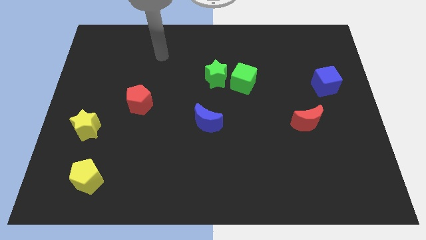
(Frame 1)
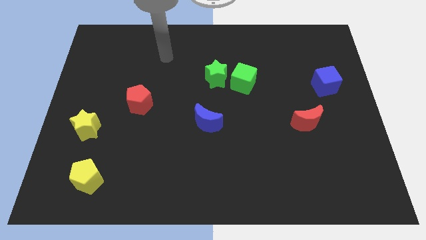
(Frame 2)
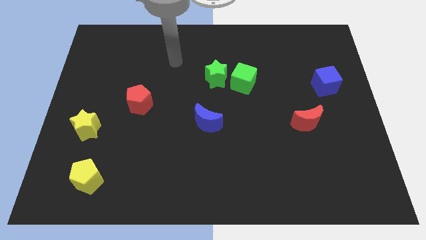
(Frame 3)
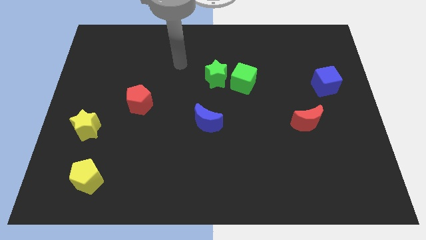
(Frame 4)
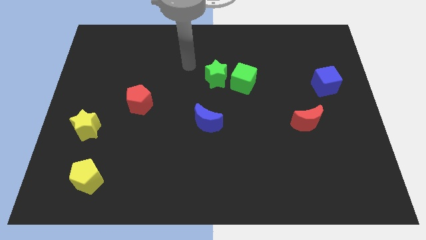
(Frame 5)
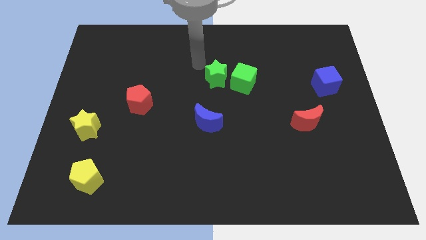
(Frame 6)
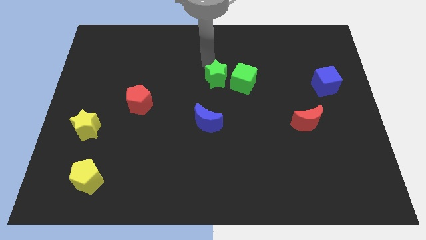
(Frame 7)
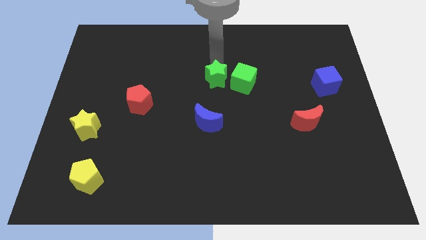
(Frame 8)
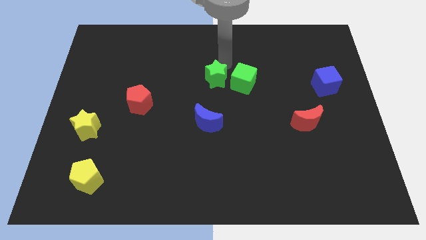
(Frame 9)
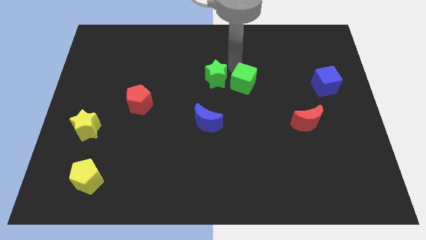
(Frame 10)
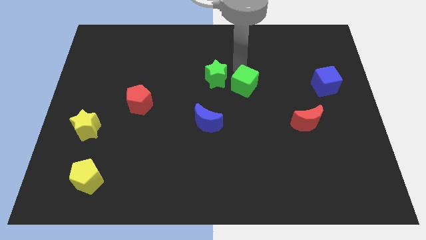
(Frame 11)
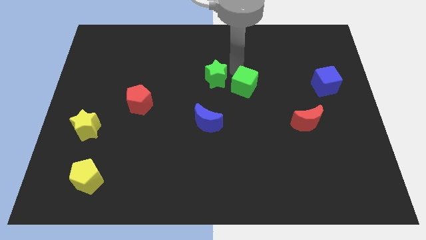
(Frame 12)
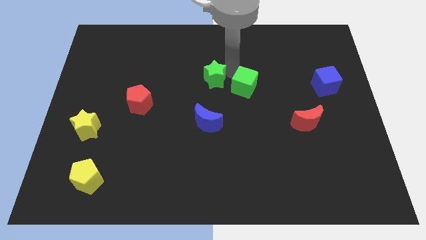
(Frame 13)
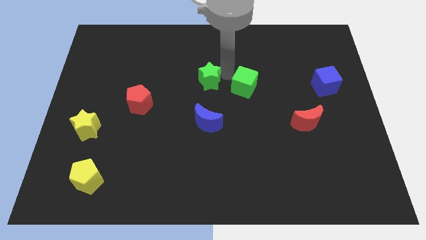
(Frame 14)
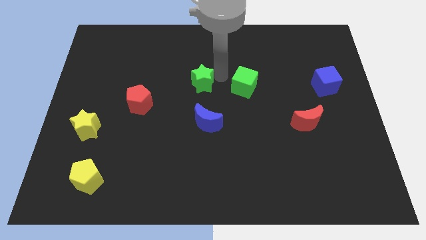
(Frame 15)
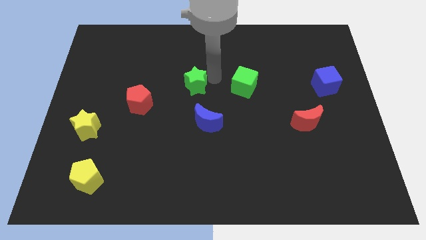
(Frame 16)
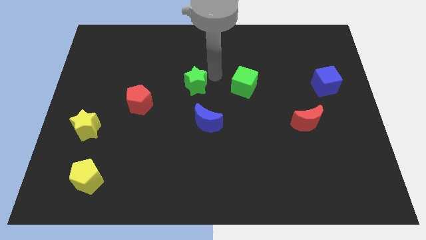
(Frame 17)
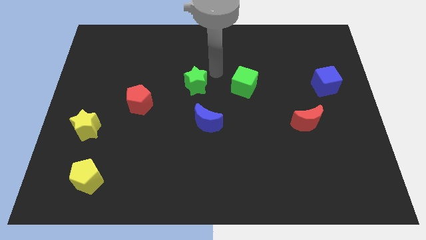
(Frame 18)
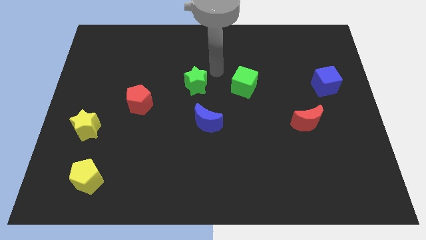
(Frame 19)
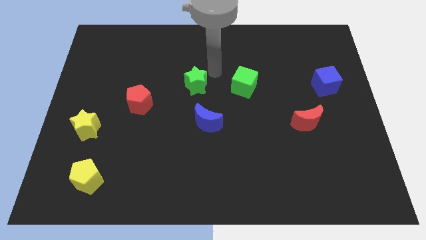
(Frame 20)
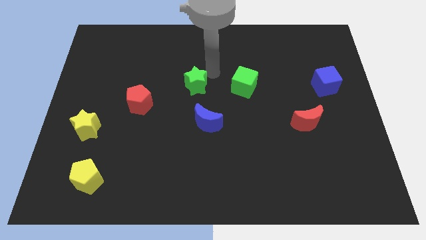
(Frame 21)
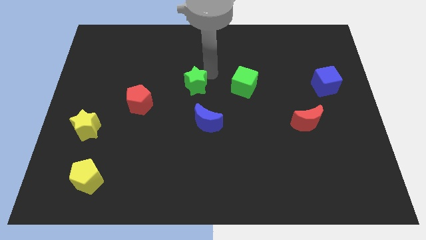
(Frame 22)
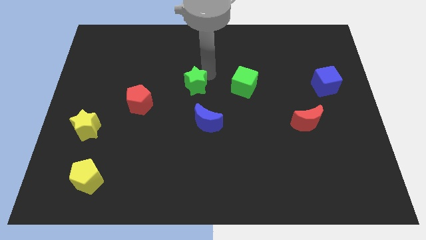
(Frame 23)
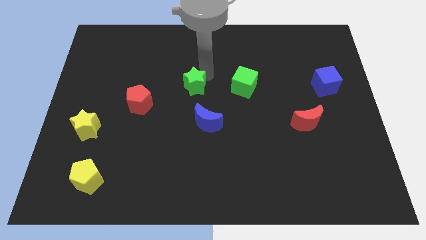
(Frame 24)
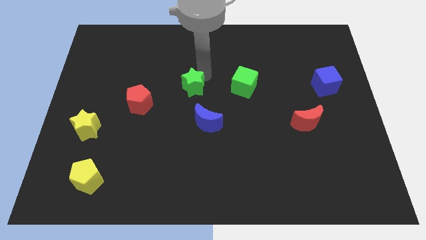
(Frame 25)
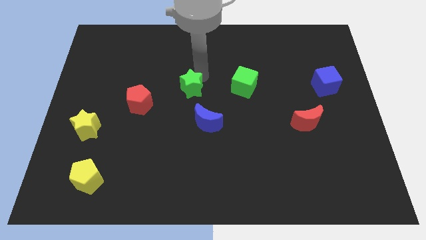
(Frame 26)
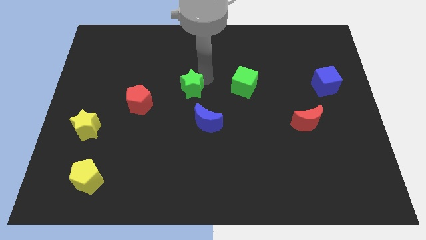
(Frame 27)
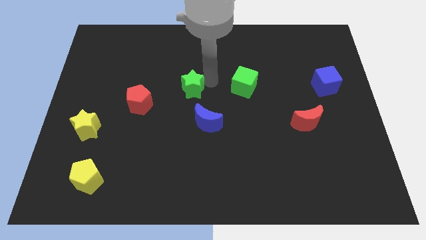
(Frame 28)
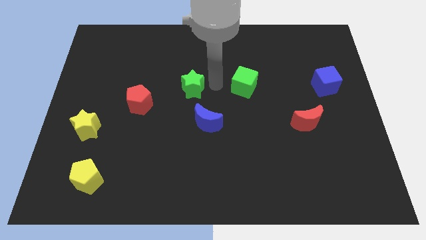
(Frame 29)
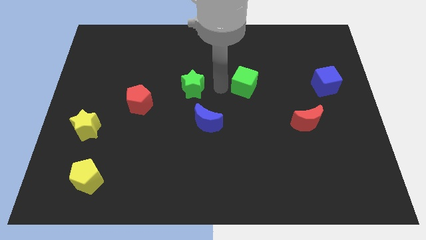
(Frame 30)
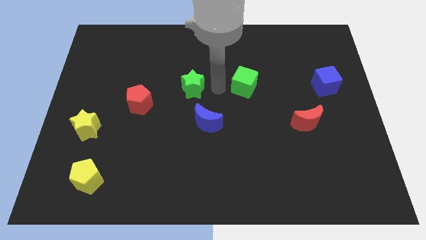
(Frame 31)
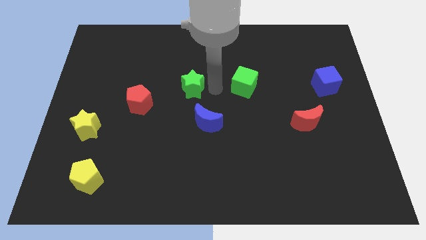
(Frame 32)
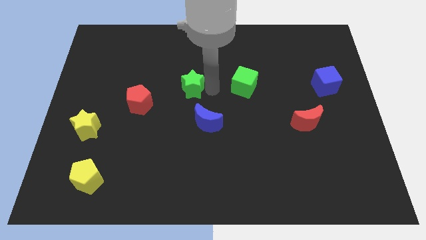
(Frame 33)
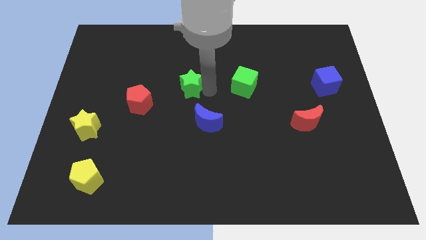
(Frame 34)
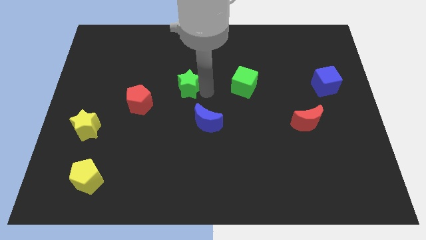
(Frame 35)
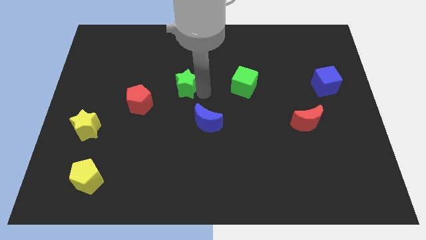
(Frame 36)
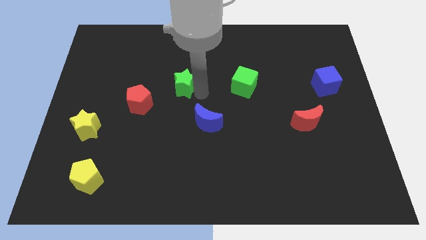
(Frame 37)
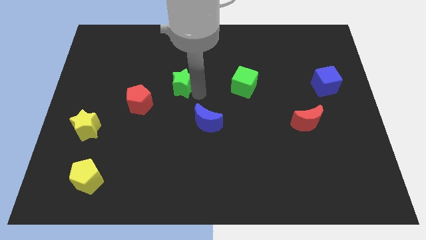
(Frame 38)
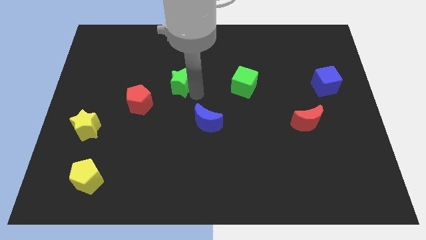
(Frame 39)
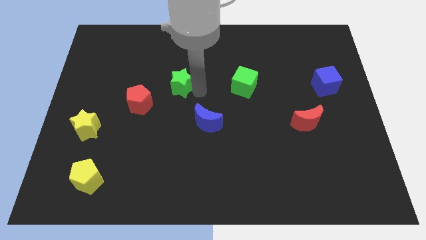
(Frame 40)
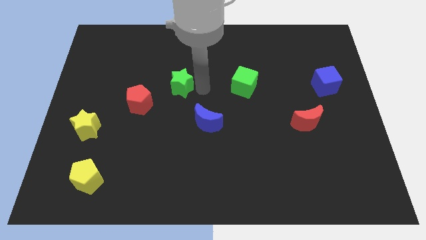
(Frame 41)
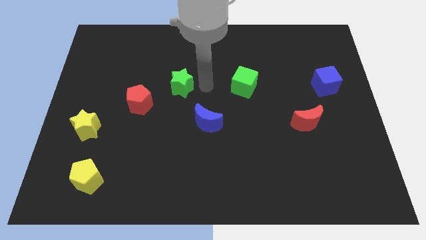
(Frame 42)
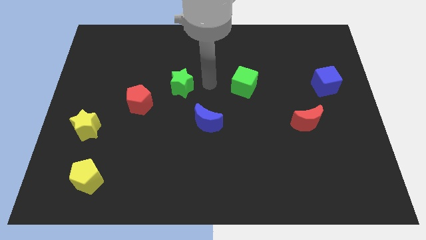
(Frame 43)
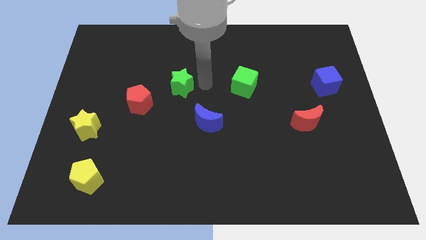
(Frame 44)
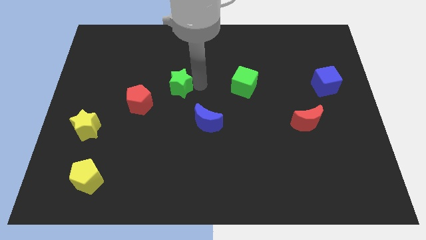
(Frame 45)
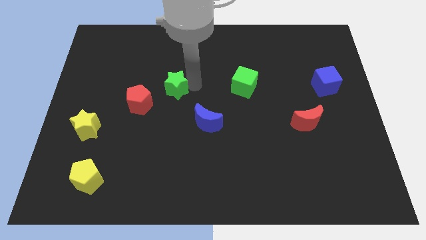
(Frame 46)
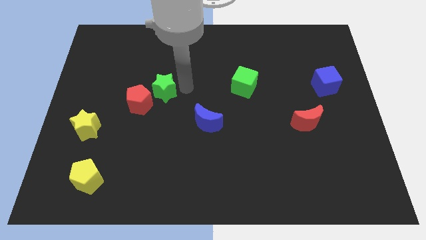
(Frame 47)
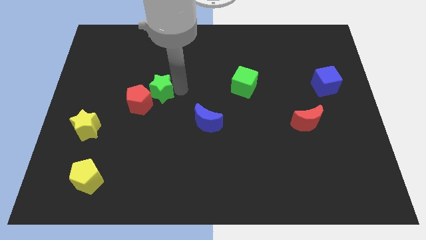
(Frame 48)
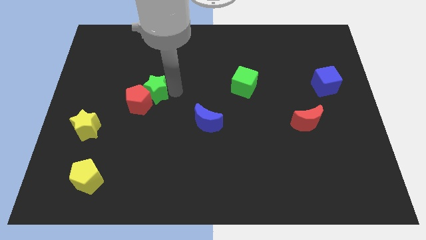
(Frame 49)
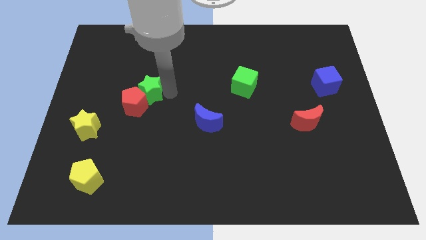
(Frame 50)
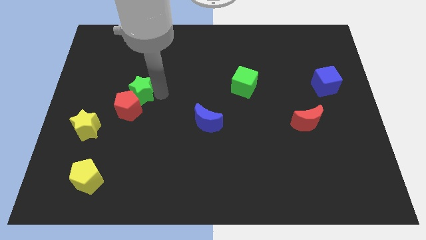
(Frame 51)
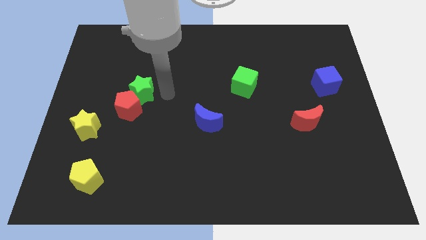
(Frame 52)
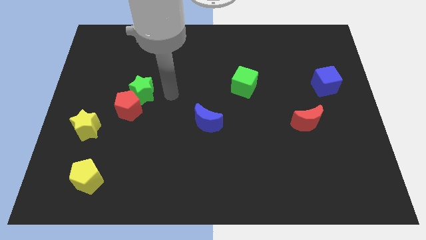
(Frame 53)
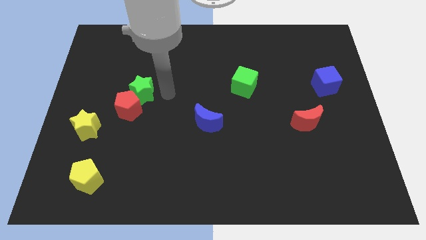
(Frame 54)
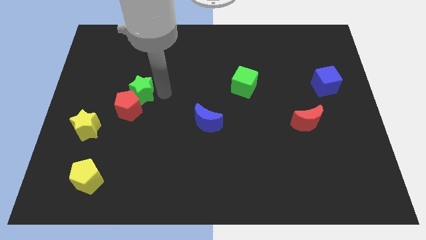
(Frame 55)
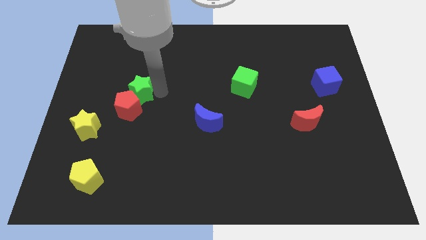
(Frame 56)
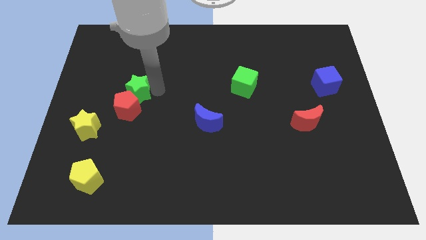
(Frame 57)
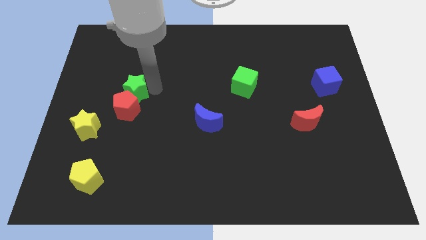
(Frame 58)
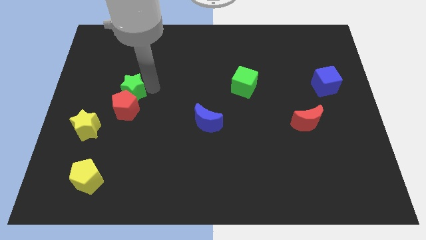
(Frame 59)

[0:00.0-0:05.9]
move the green star diagonally up and to the left of the red pentagon

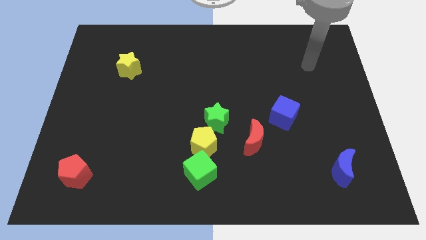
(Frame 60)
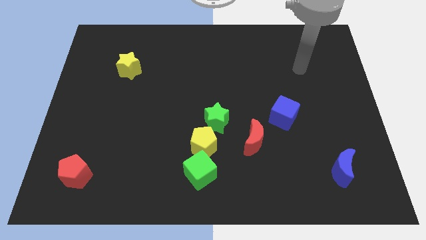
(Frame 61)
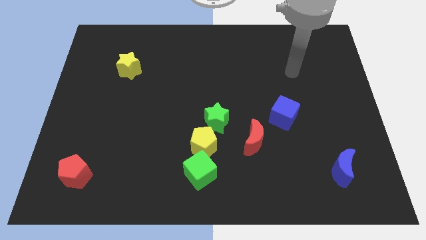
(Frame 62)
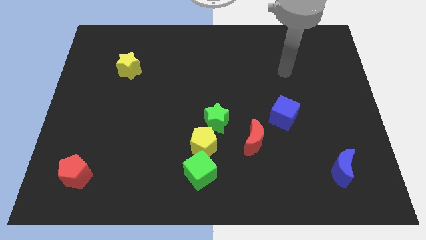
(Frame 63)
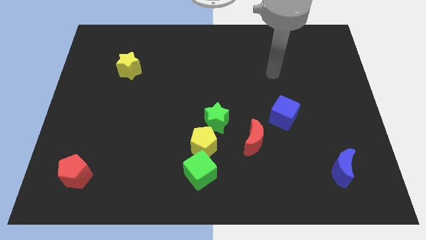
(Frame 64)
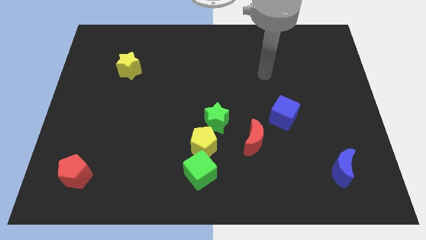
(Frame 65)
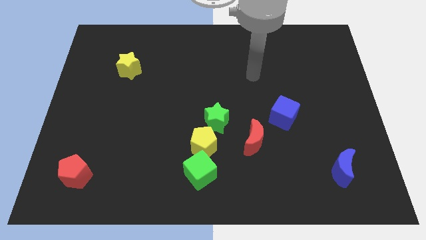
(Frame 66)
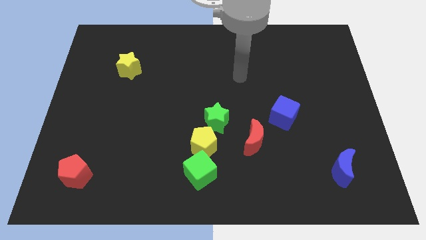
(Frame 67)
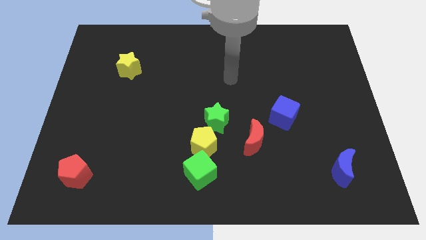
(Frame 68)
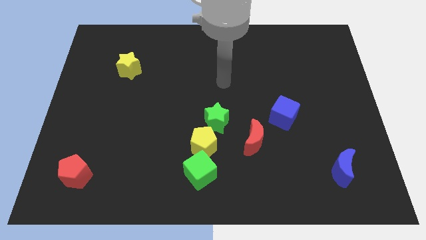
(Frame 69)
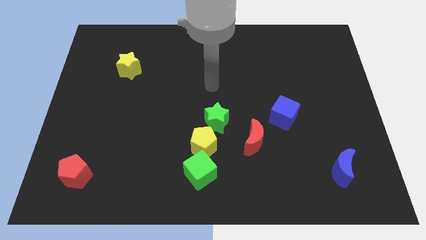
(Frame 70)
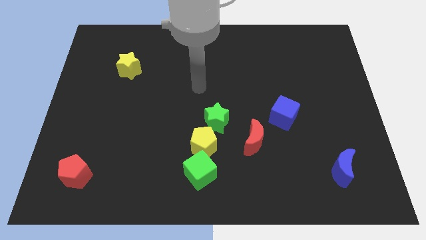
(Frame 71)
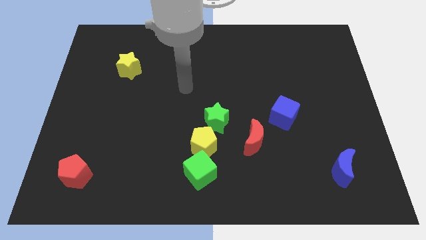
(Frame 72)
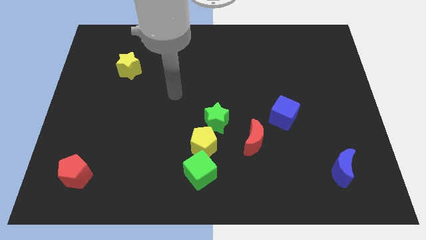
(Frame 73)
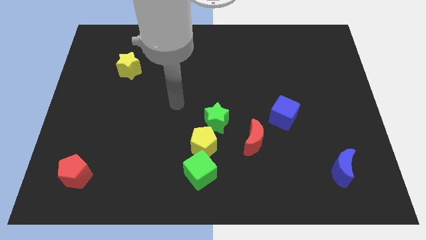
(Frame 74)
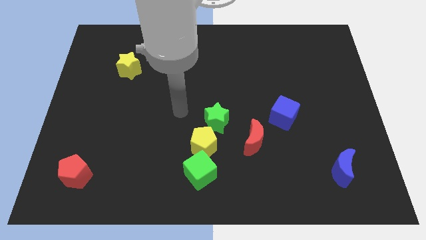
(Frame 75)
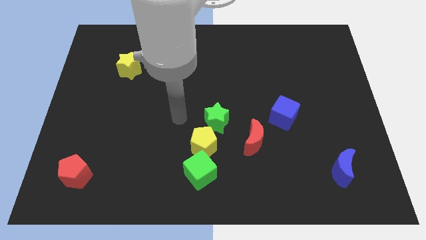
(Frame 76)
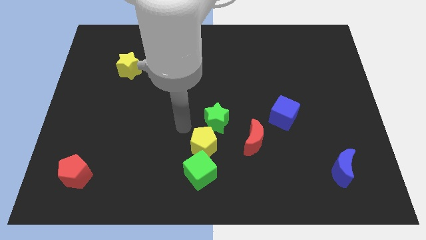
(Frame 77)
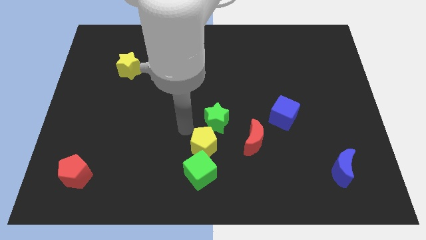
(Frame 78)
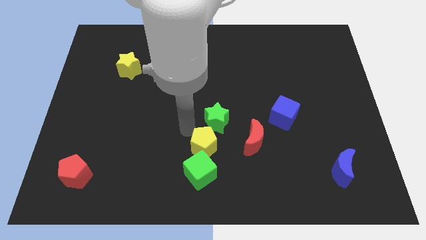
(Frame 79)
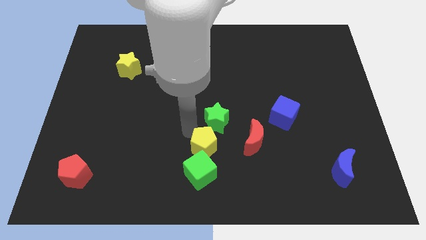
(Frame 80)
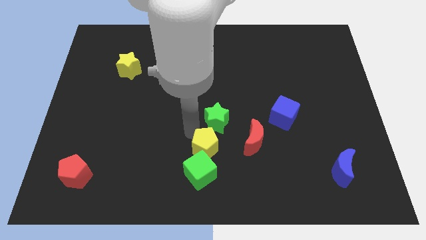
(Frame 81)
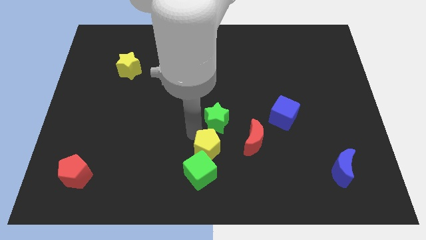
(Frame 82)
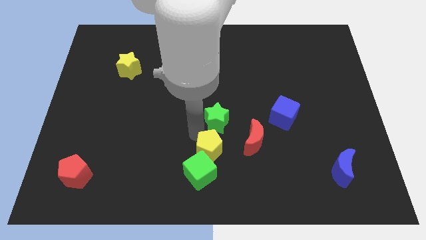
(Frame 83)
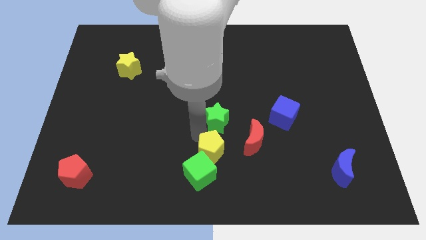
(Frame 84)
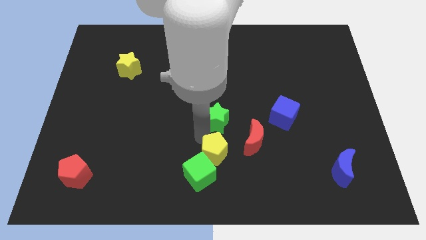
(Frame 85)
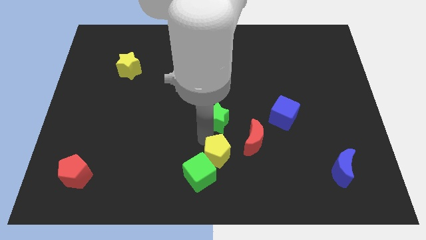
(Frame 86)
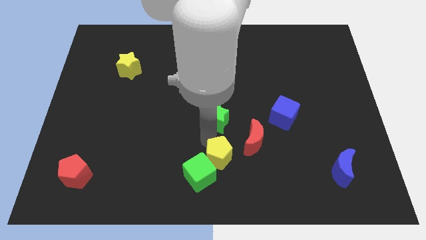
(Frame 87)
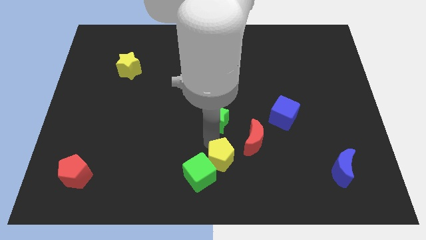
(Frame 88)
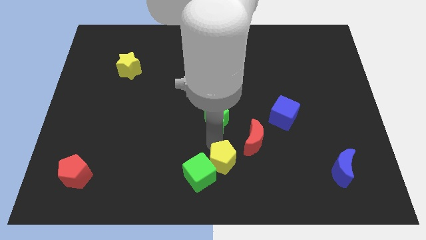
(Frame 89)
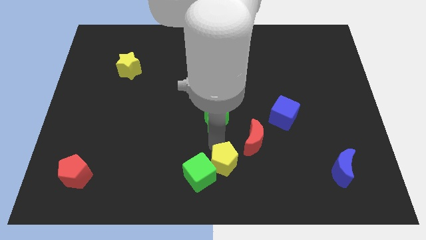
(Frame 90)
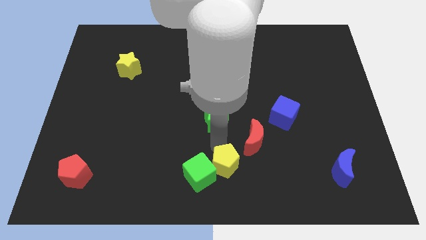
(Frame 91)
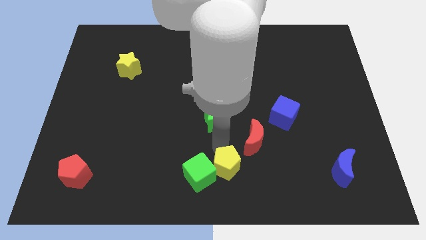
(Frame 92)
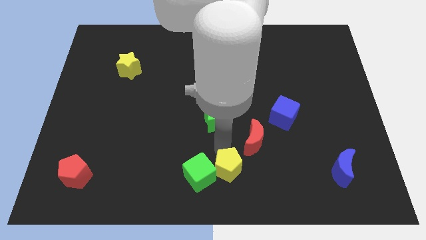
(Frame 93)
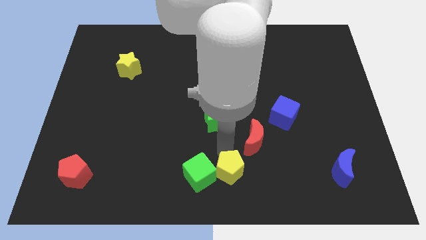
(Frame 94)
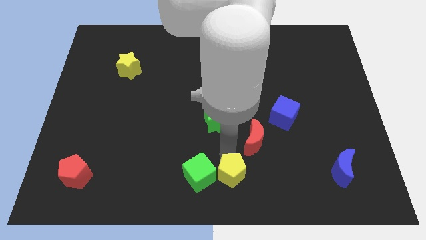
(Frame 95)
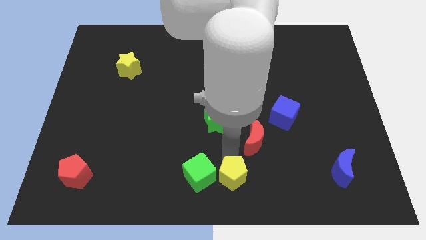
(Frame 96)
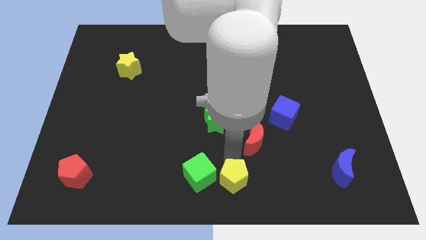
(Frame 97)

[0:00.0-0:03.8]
put the yellow pentagon to the bottom side of the red moon
